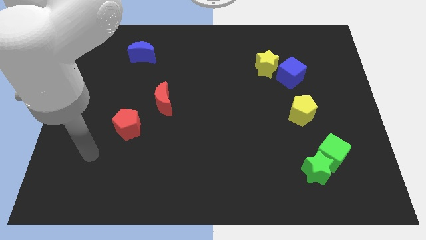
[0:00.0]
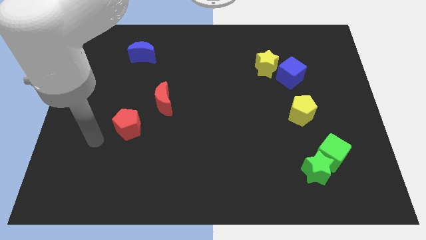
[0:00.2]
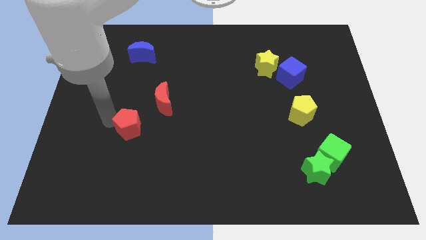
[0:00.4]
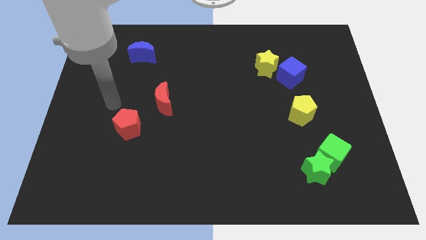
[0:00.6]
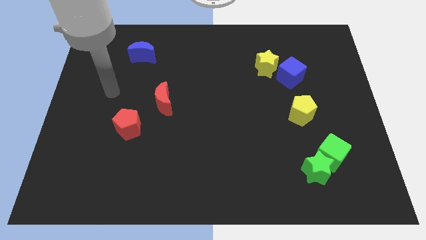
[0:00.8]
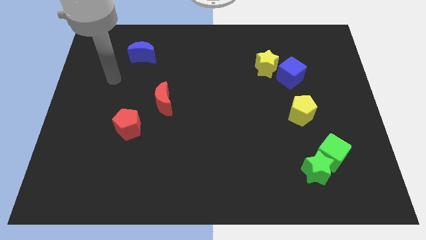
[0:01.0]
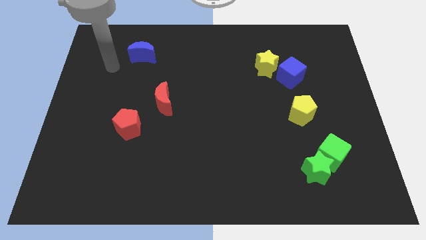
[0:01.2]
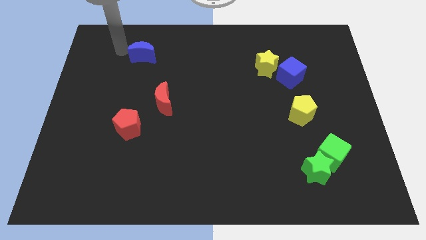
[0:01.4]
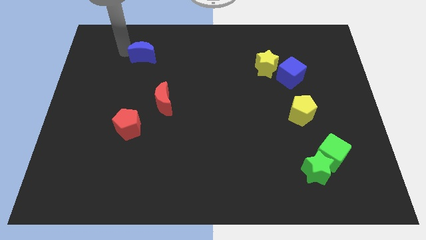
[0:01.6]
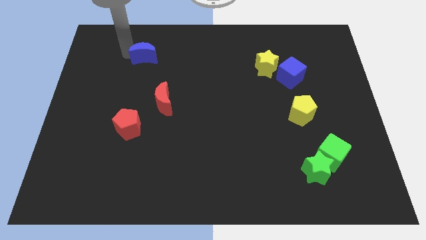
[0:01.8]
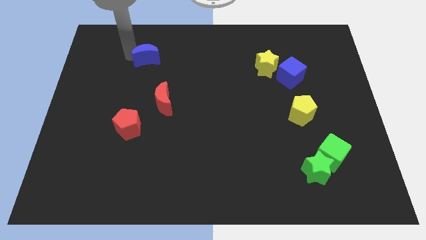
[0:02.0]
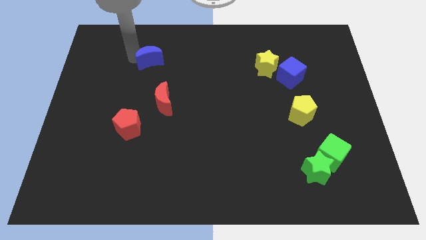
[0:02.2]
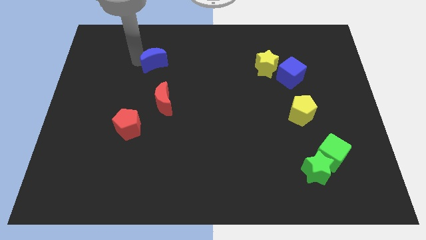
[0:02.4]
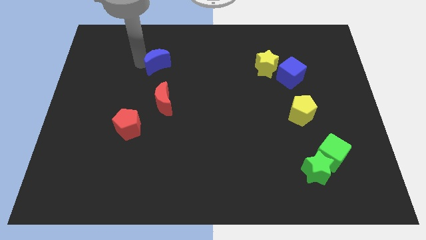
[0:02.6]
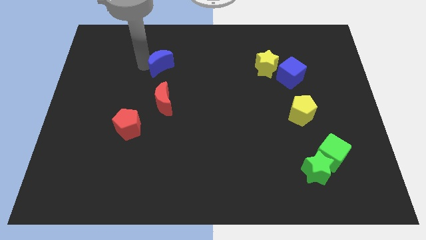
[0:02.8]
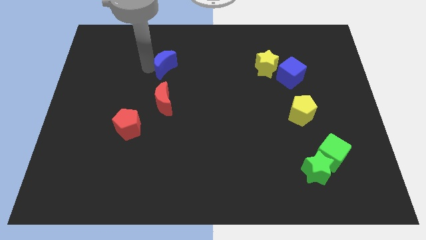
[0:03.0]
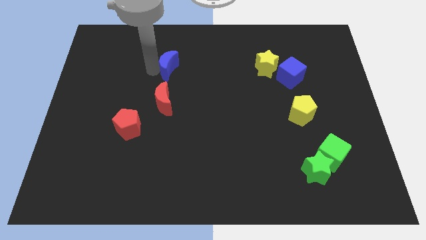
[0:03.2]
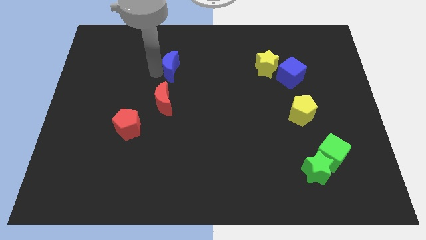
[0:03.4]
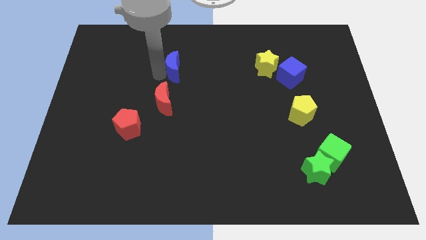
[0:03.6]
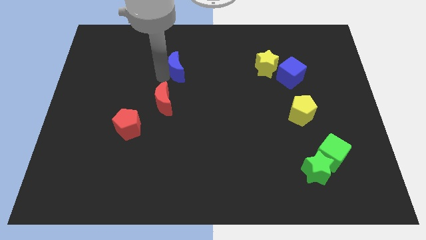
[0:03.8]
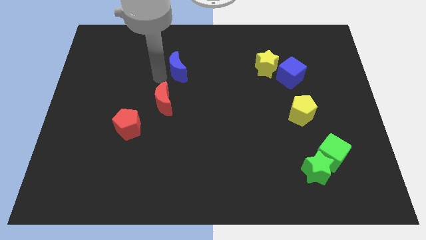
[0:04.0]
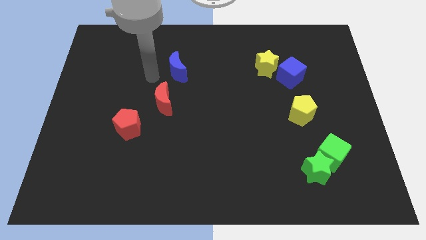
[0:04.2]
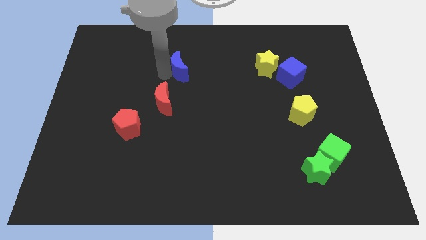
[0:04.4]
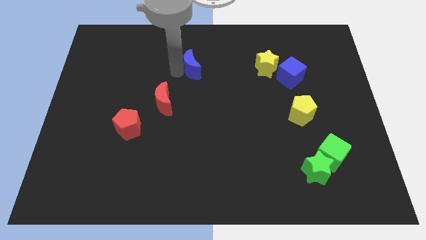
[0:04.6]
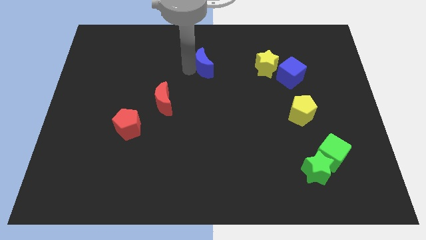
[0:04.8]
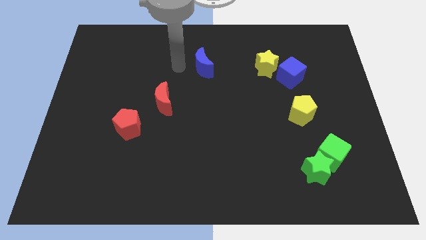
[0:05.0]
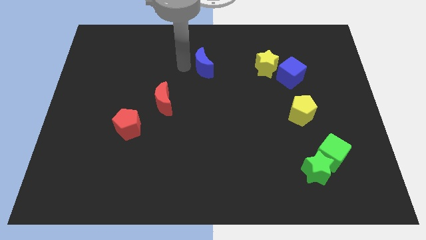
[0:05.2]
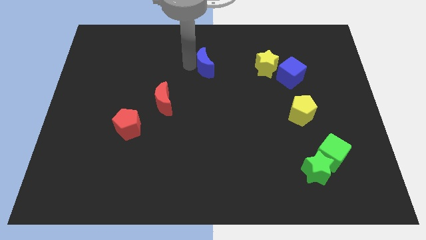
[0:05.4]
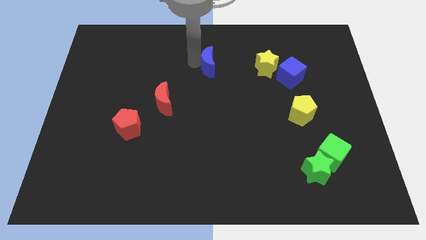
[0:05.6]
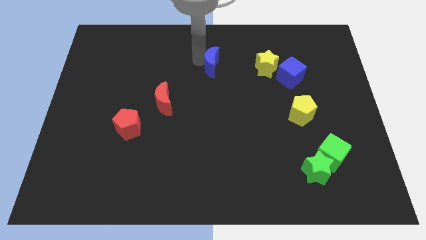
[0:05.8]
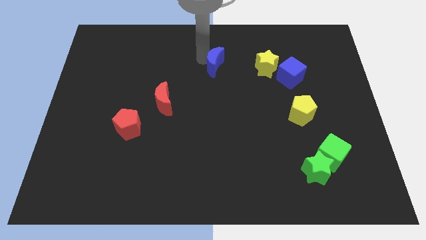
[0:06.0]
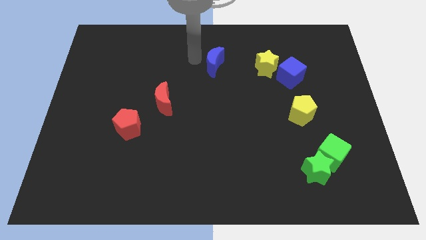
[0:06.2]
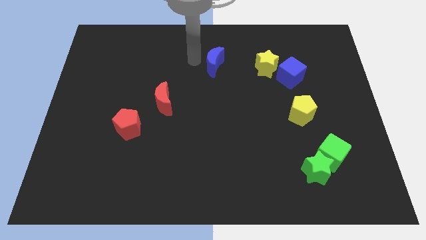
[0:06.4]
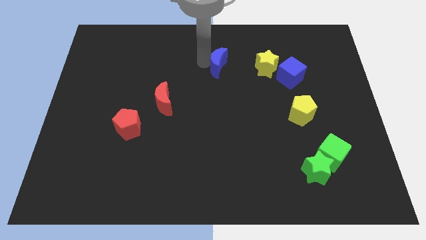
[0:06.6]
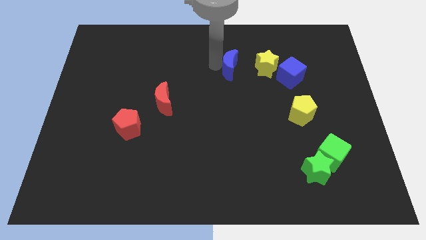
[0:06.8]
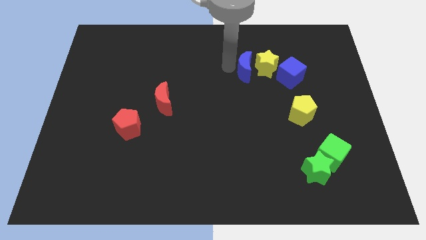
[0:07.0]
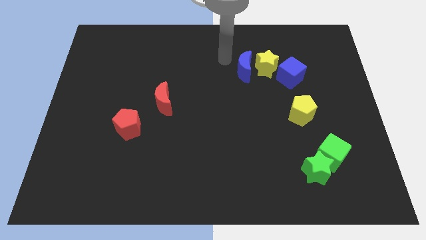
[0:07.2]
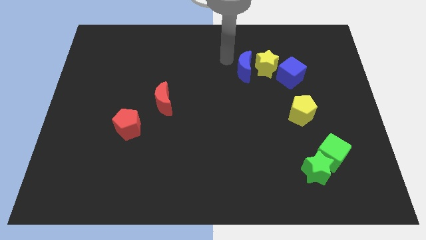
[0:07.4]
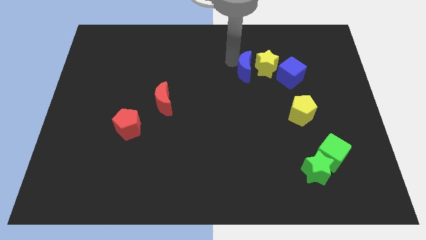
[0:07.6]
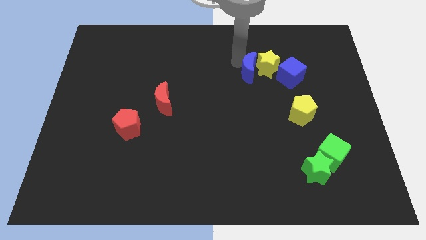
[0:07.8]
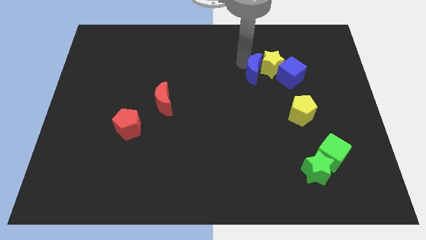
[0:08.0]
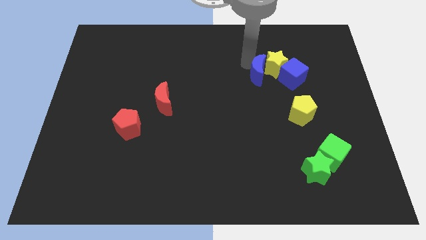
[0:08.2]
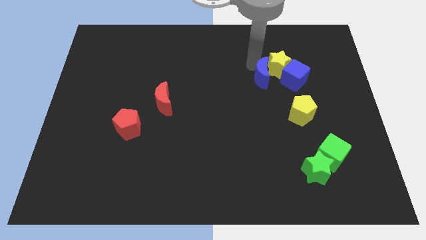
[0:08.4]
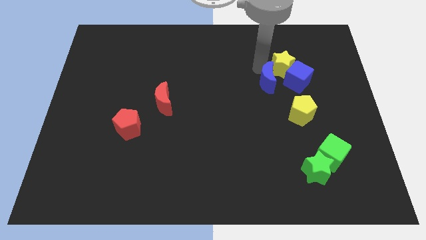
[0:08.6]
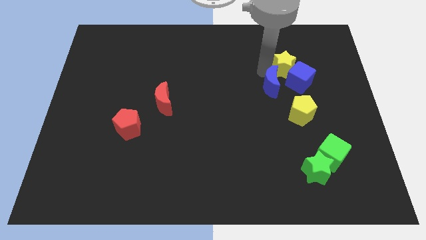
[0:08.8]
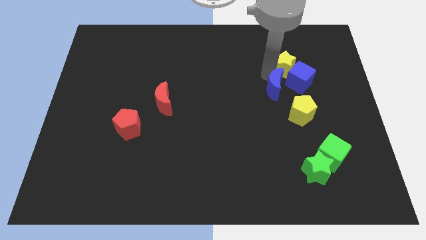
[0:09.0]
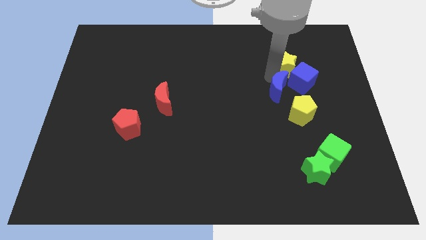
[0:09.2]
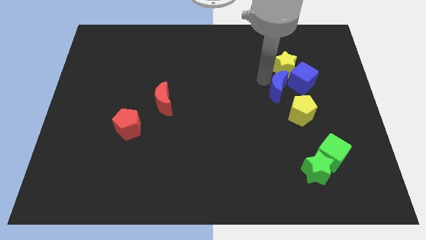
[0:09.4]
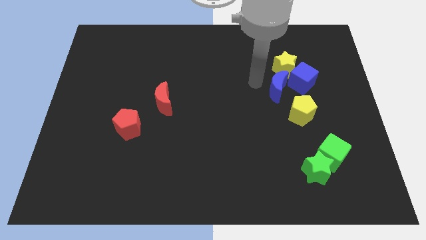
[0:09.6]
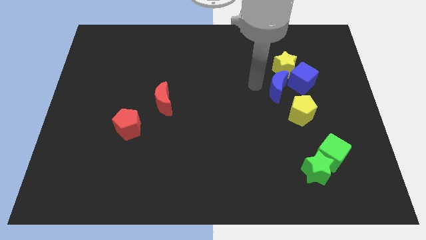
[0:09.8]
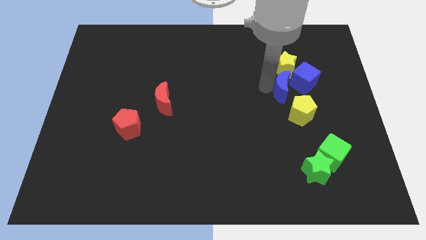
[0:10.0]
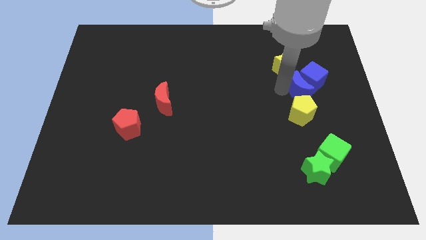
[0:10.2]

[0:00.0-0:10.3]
push the blue moon to the top right of the yellow pentagon

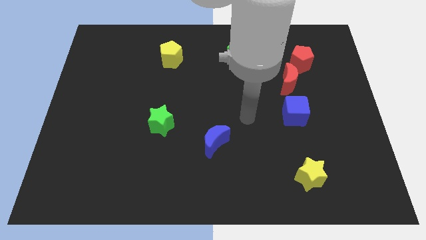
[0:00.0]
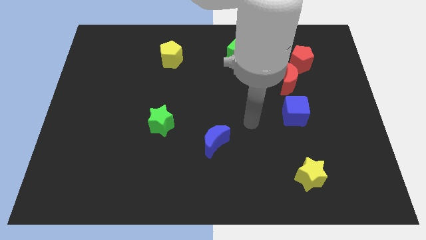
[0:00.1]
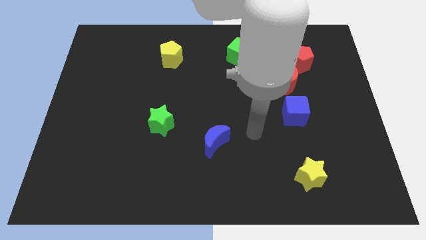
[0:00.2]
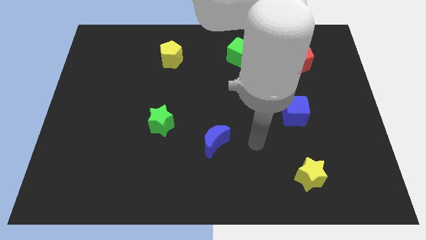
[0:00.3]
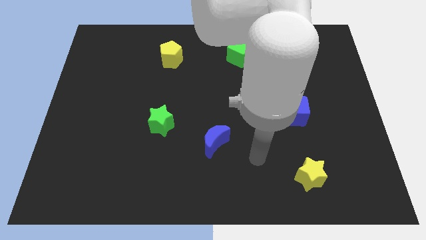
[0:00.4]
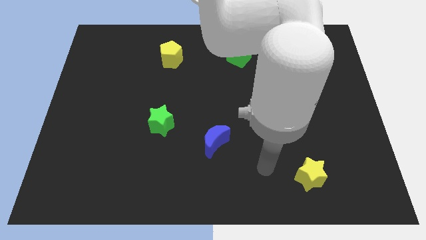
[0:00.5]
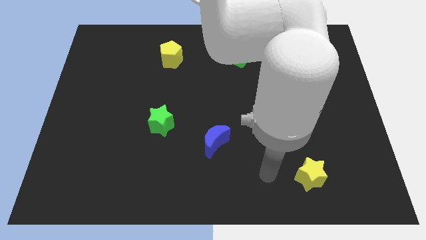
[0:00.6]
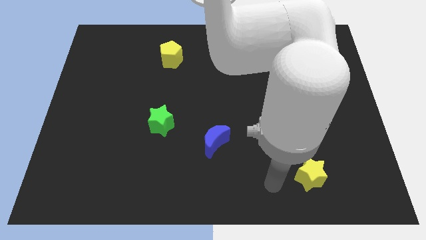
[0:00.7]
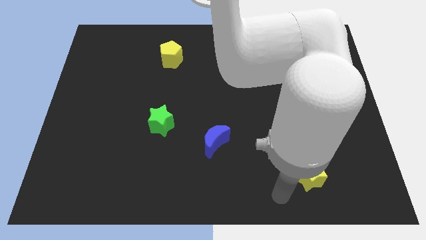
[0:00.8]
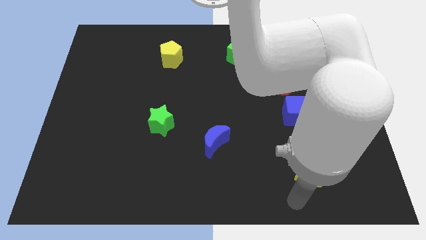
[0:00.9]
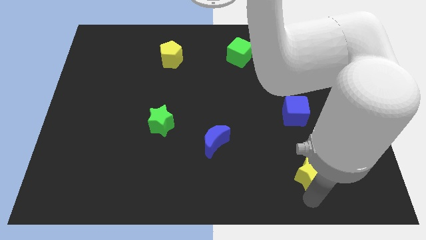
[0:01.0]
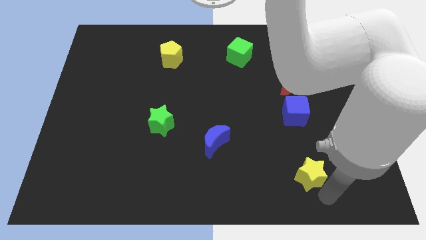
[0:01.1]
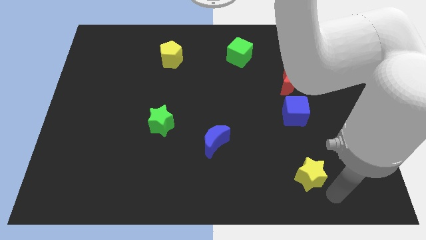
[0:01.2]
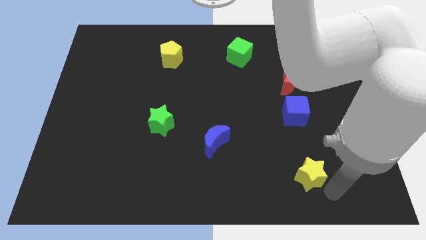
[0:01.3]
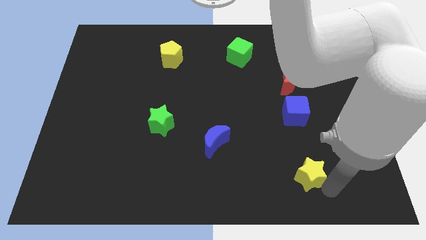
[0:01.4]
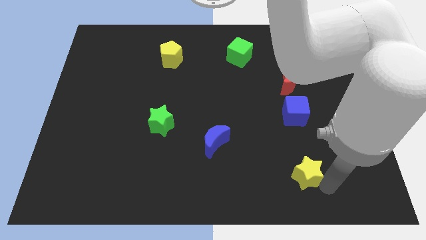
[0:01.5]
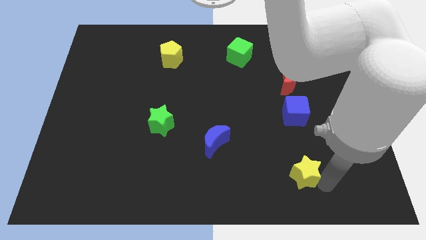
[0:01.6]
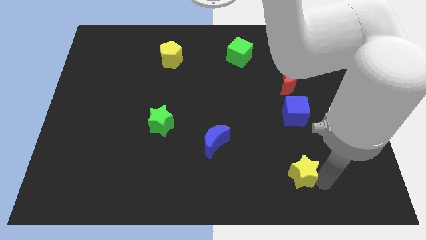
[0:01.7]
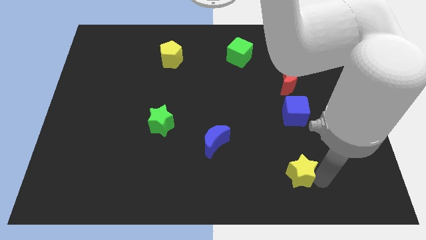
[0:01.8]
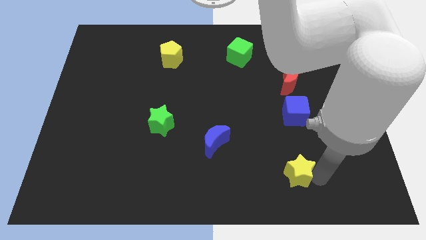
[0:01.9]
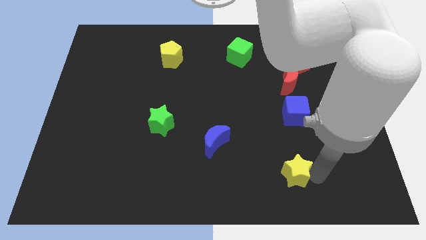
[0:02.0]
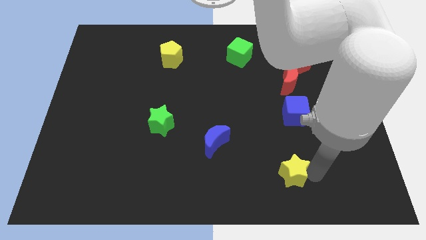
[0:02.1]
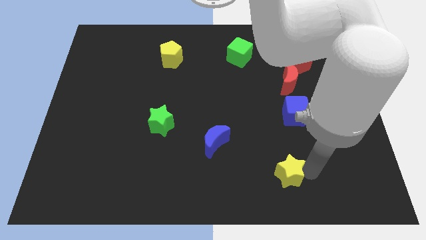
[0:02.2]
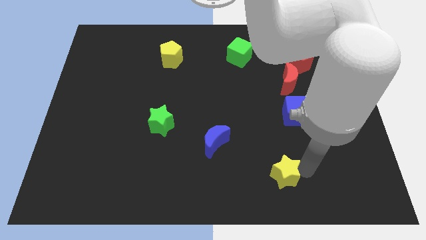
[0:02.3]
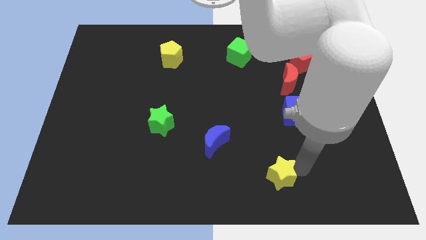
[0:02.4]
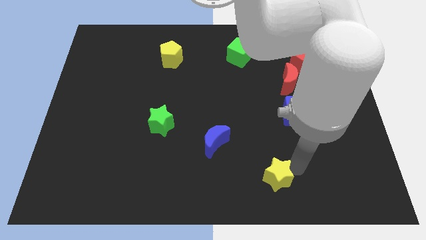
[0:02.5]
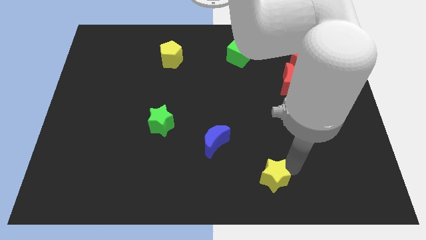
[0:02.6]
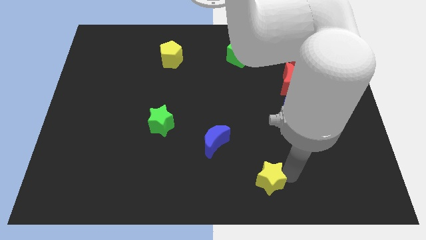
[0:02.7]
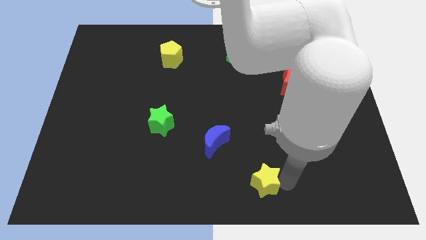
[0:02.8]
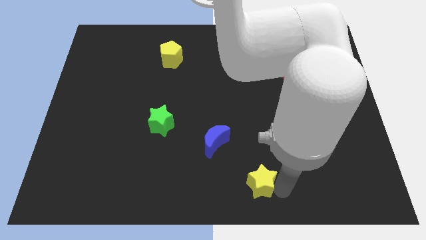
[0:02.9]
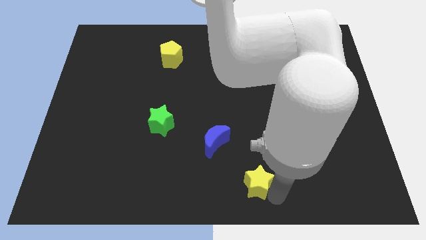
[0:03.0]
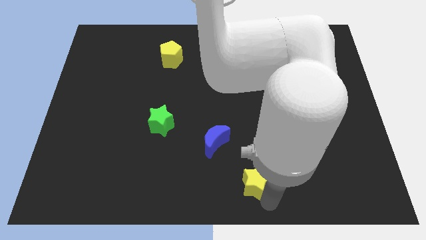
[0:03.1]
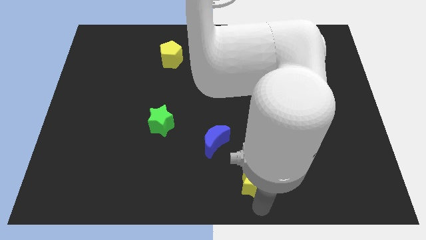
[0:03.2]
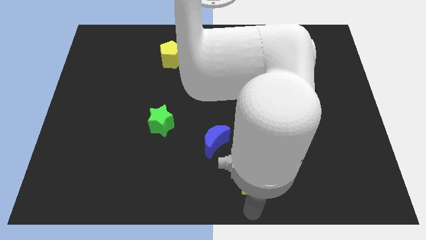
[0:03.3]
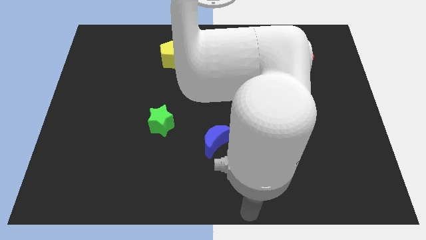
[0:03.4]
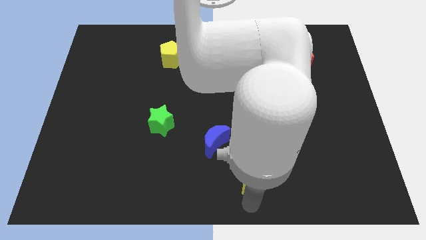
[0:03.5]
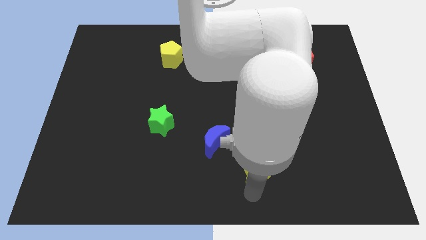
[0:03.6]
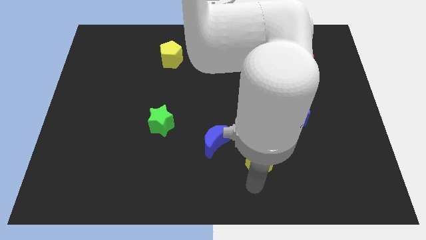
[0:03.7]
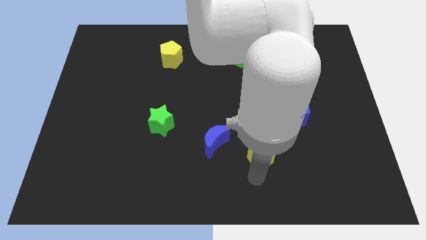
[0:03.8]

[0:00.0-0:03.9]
put the yellow star just right of the blue moon
